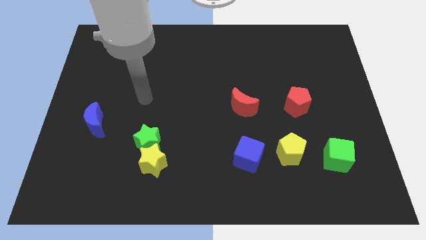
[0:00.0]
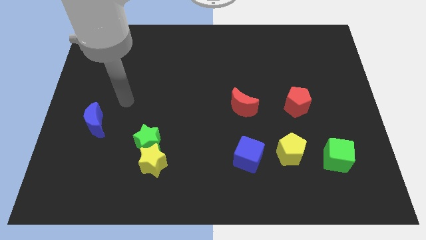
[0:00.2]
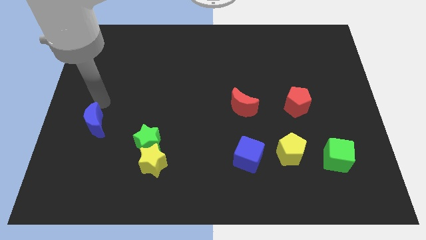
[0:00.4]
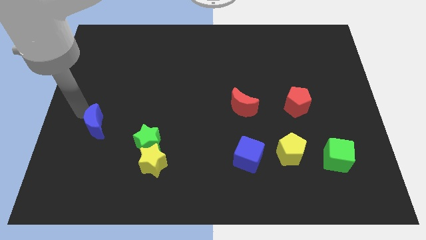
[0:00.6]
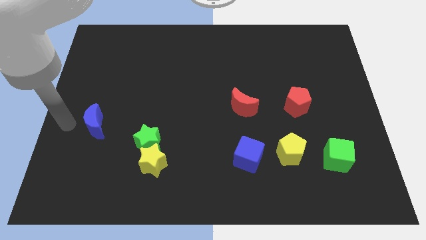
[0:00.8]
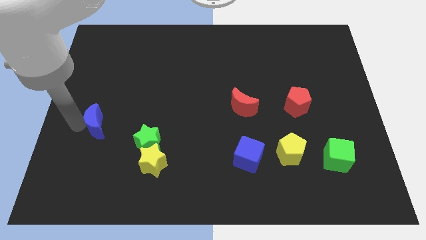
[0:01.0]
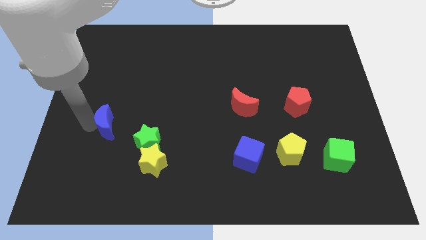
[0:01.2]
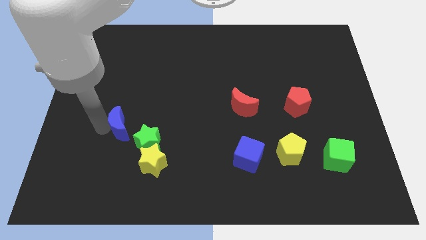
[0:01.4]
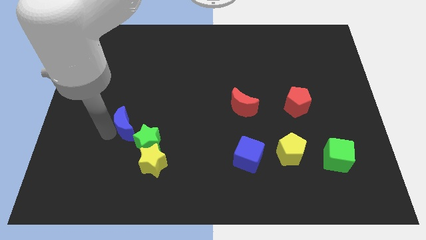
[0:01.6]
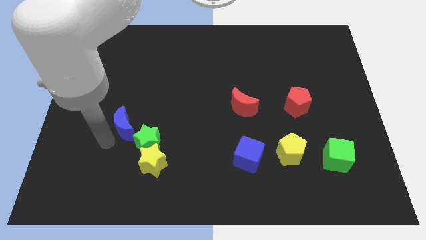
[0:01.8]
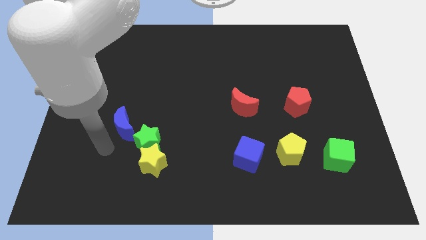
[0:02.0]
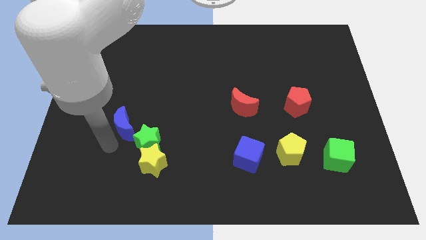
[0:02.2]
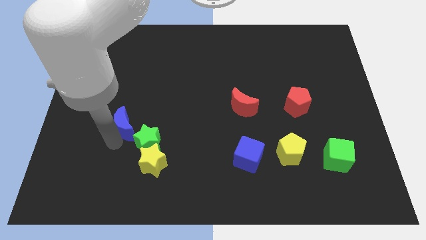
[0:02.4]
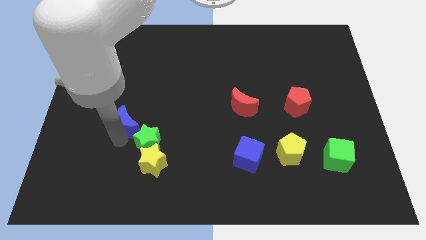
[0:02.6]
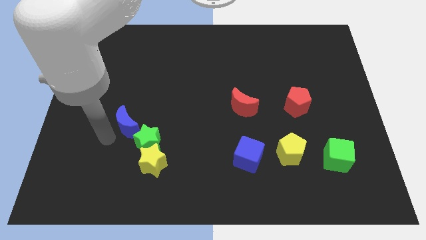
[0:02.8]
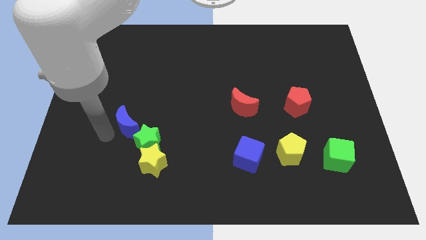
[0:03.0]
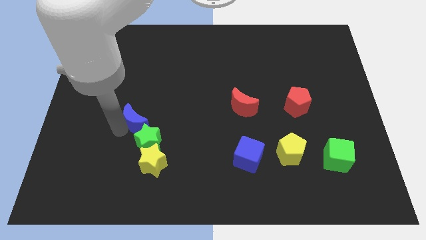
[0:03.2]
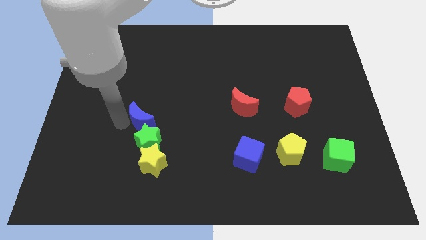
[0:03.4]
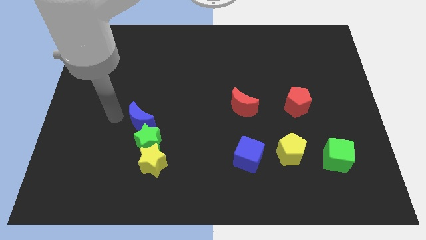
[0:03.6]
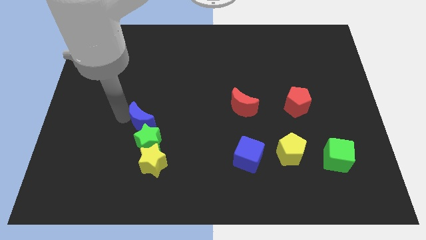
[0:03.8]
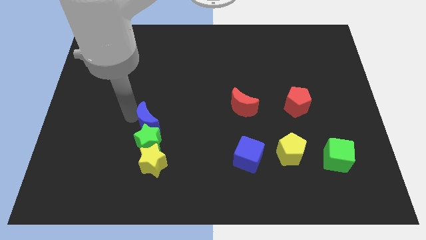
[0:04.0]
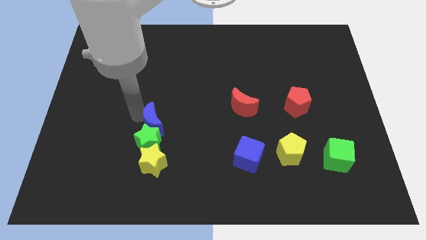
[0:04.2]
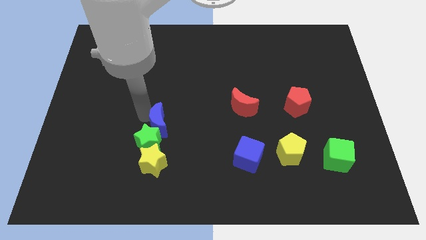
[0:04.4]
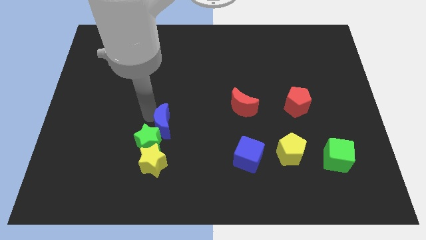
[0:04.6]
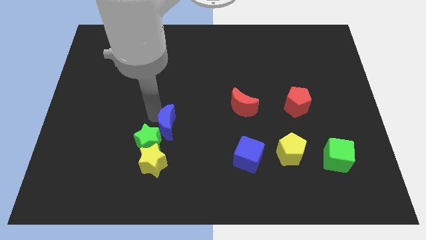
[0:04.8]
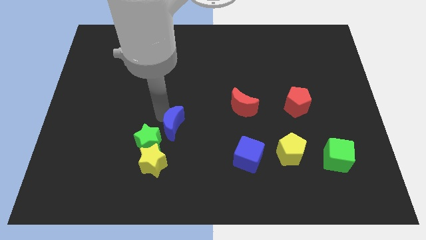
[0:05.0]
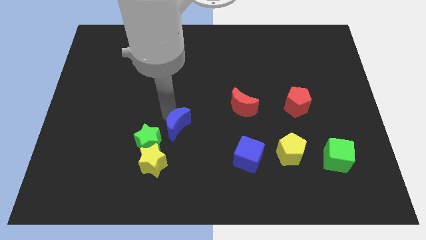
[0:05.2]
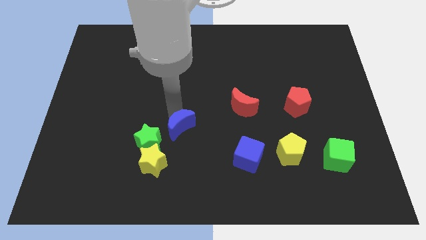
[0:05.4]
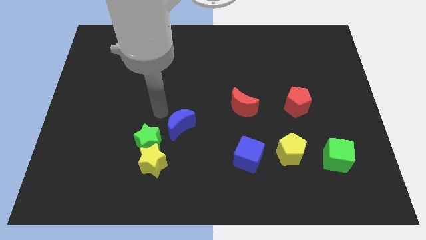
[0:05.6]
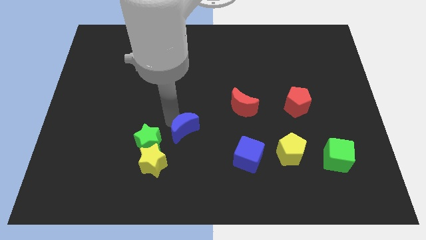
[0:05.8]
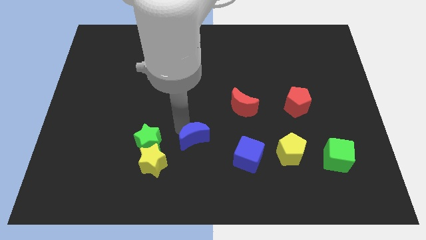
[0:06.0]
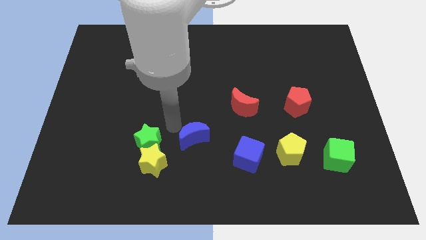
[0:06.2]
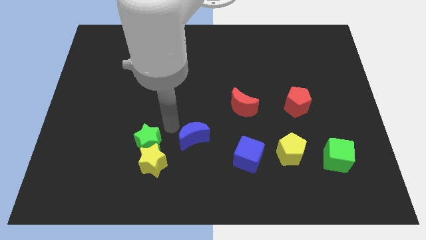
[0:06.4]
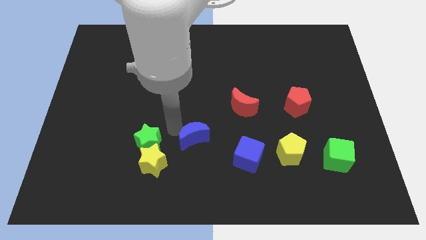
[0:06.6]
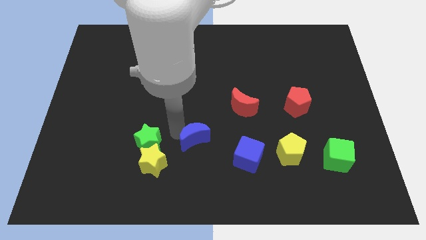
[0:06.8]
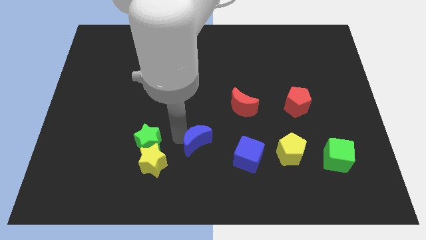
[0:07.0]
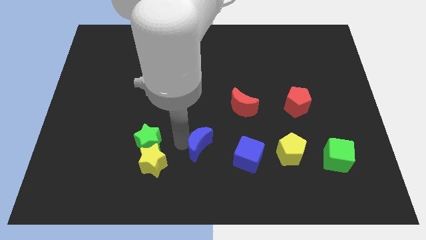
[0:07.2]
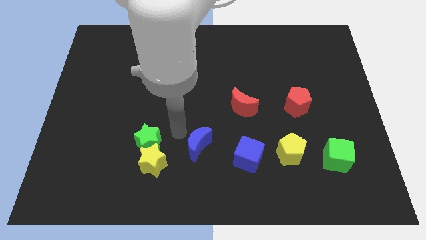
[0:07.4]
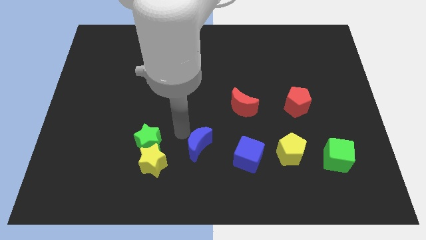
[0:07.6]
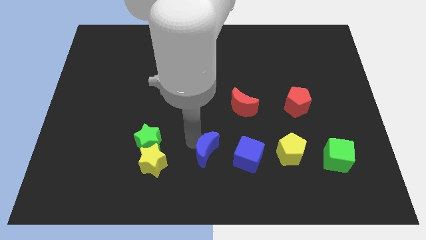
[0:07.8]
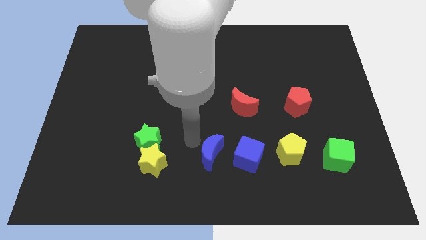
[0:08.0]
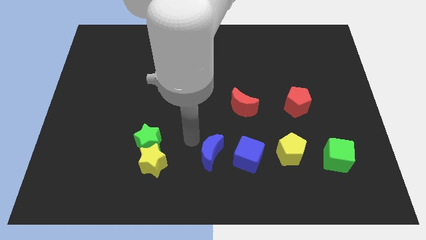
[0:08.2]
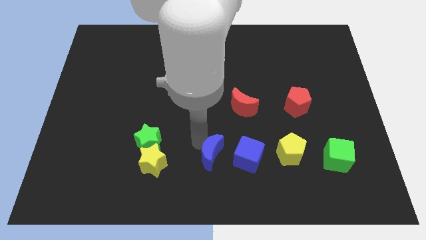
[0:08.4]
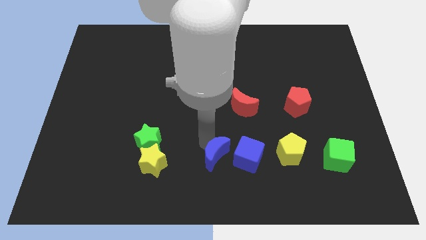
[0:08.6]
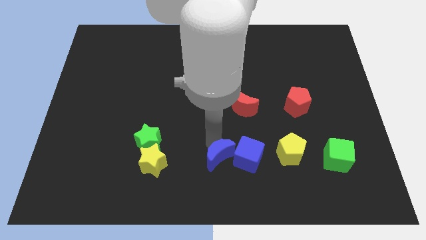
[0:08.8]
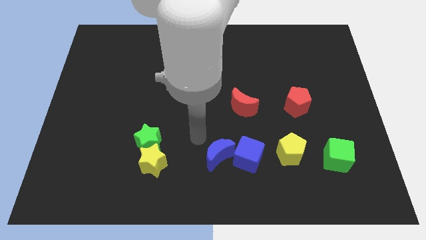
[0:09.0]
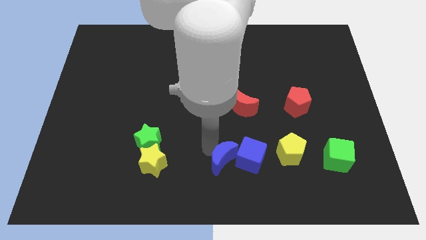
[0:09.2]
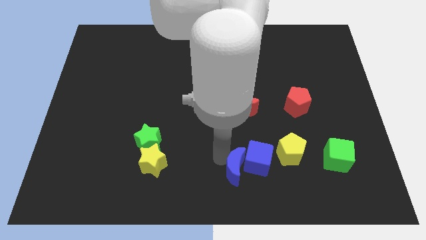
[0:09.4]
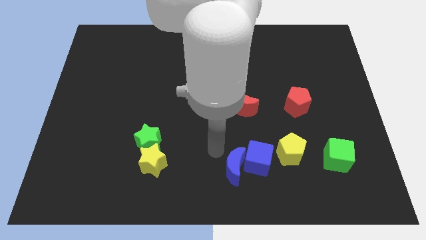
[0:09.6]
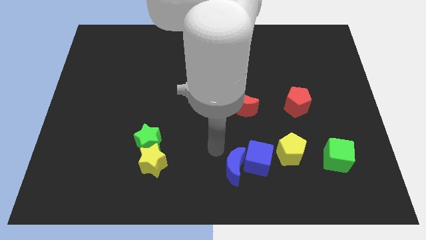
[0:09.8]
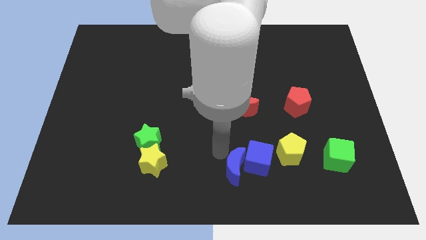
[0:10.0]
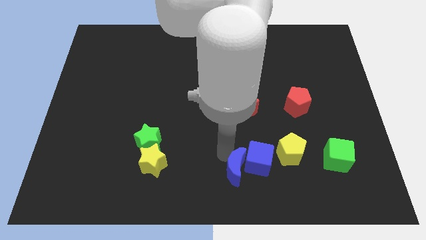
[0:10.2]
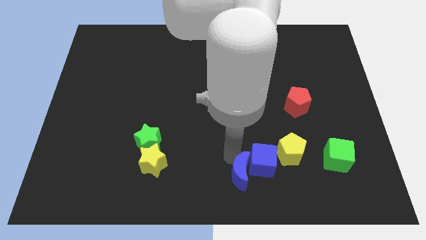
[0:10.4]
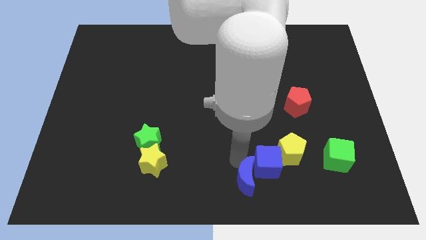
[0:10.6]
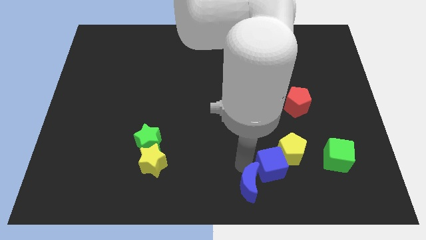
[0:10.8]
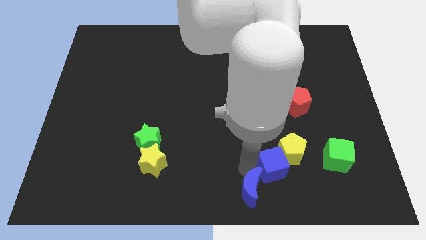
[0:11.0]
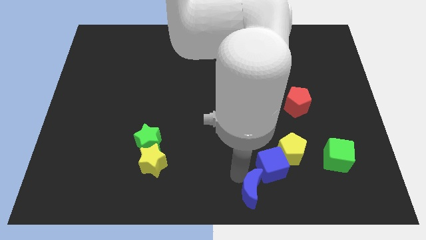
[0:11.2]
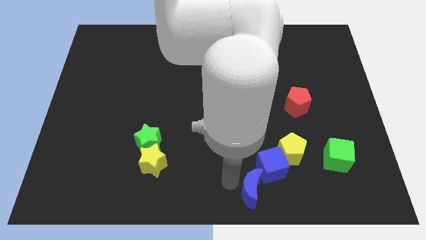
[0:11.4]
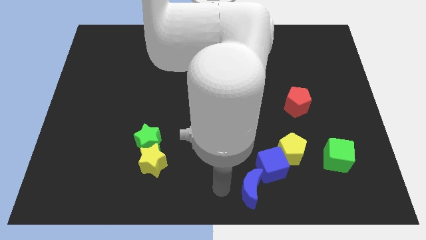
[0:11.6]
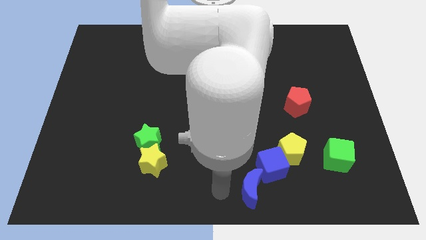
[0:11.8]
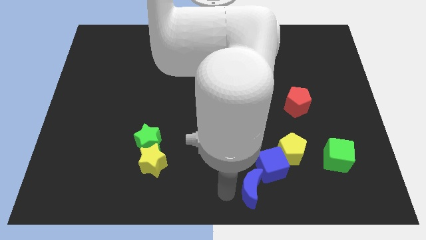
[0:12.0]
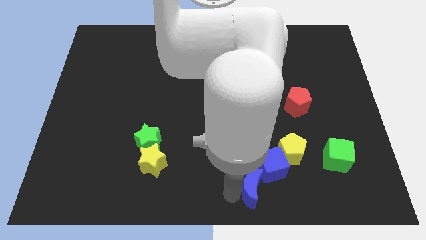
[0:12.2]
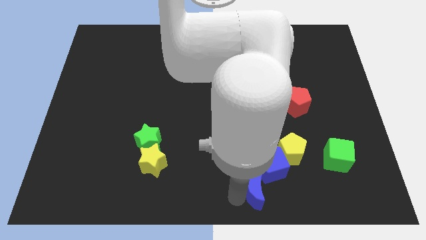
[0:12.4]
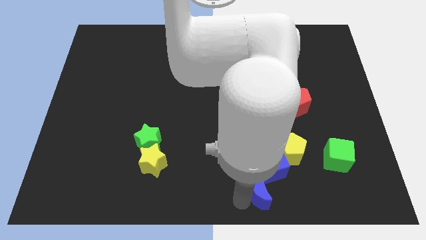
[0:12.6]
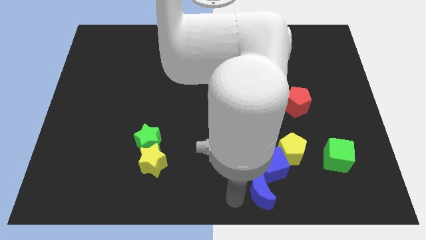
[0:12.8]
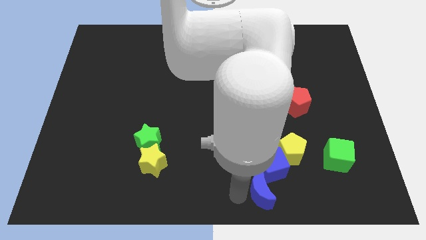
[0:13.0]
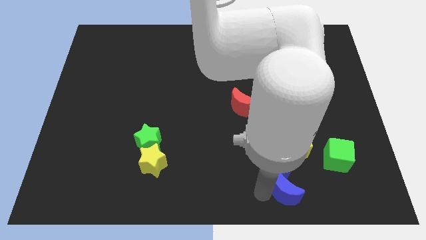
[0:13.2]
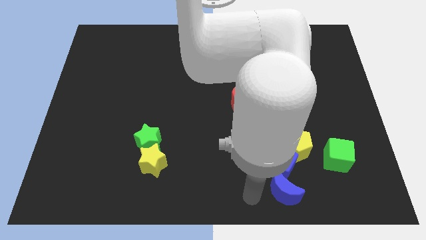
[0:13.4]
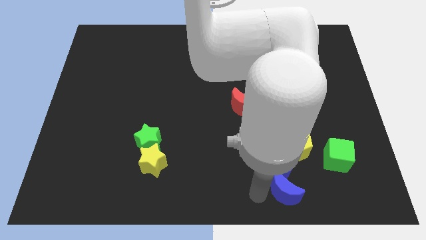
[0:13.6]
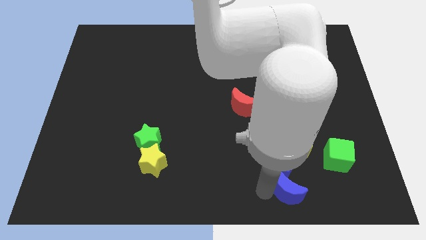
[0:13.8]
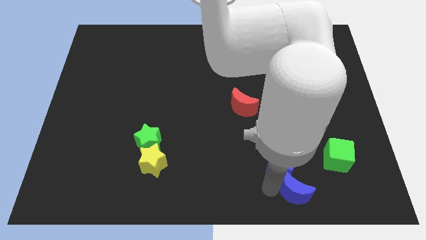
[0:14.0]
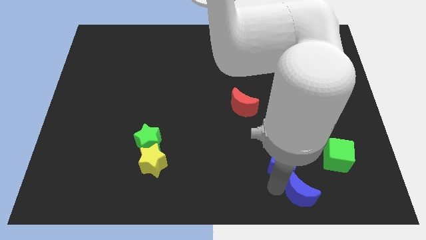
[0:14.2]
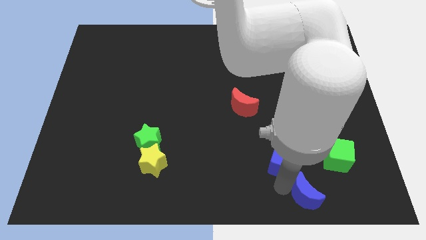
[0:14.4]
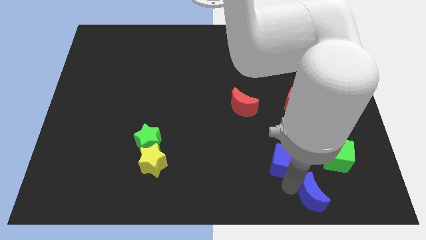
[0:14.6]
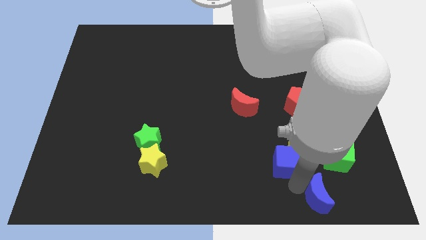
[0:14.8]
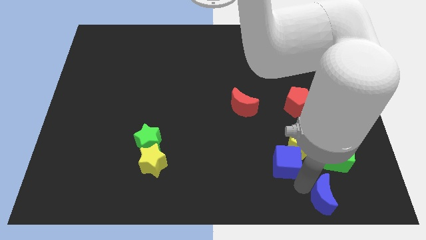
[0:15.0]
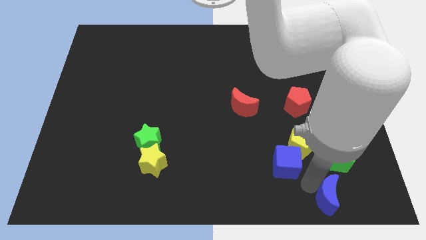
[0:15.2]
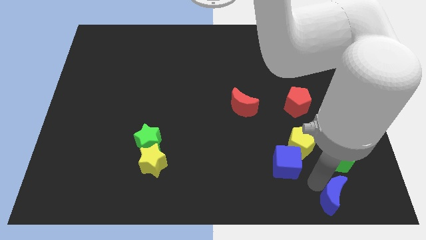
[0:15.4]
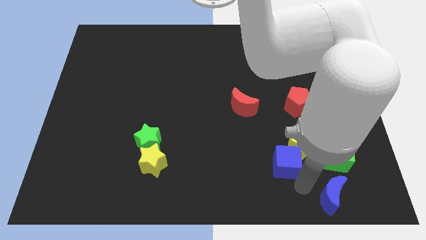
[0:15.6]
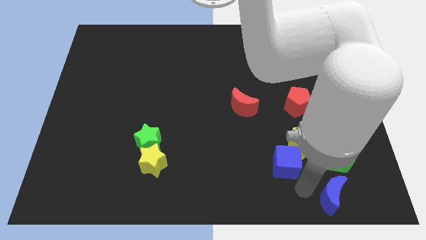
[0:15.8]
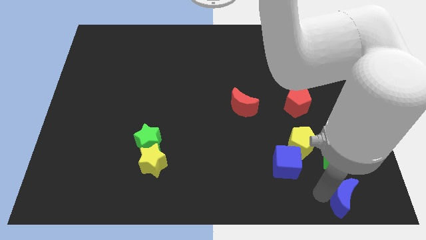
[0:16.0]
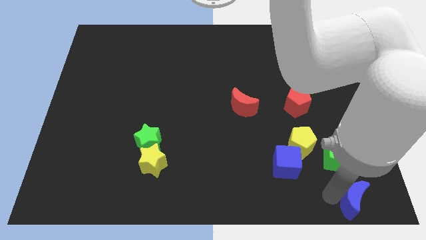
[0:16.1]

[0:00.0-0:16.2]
slide the blue moon to the bottom right
